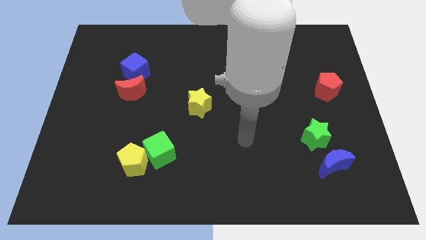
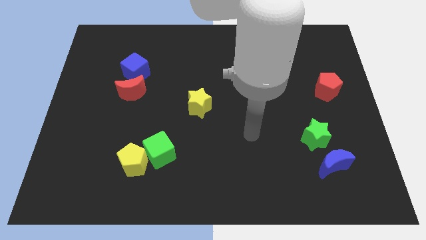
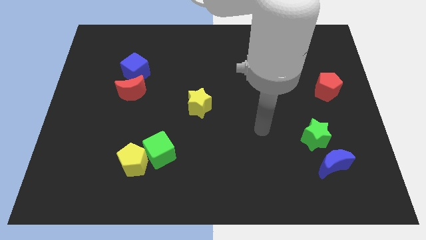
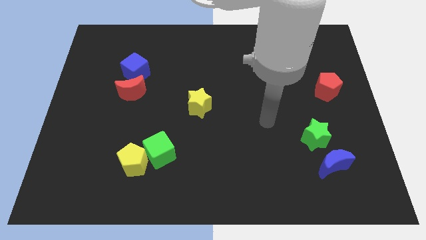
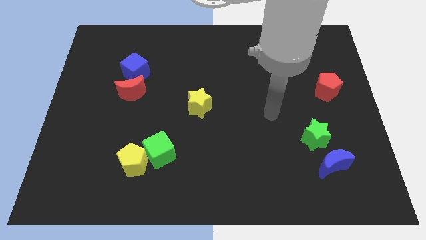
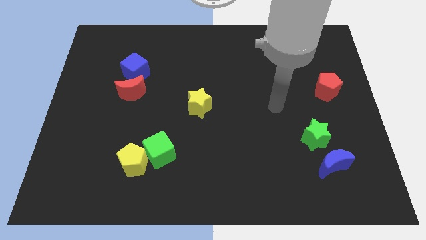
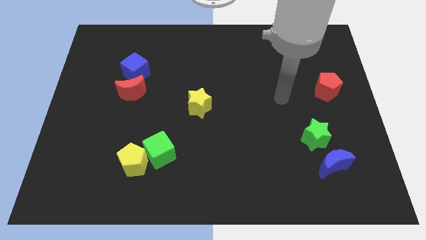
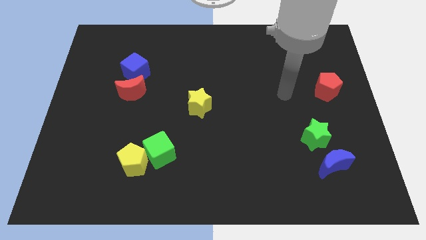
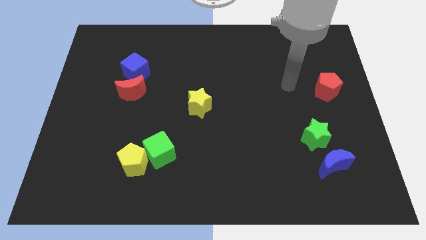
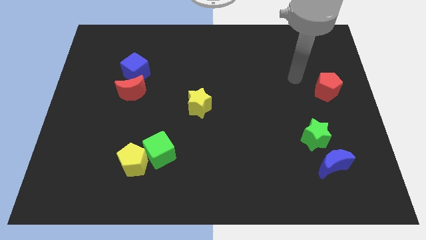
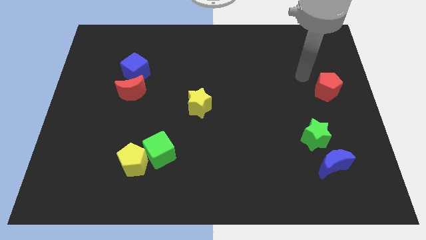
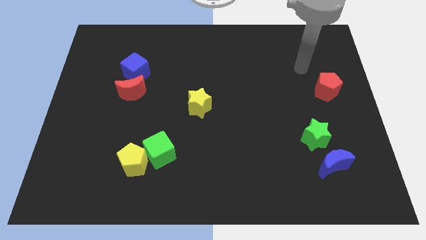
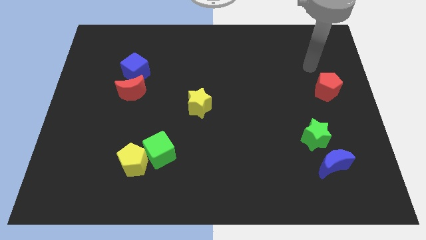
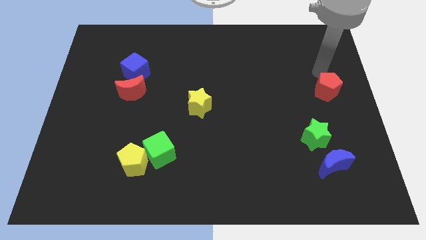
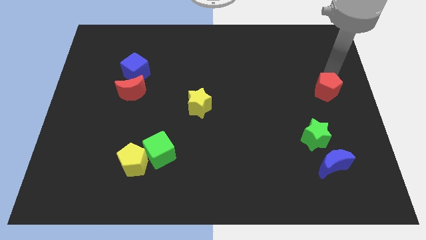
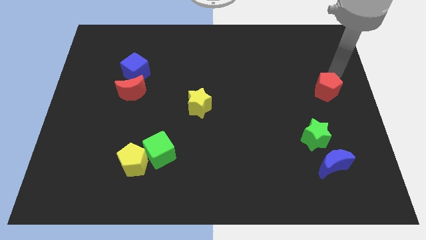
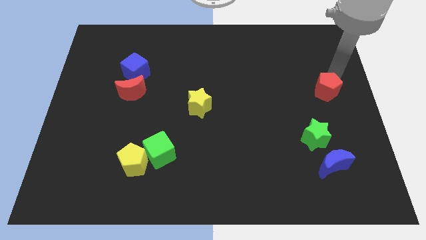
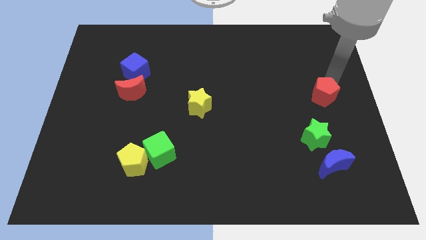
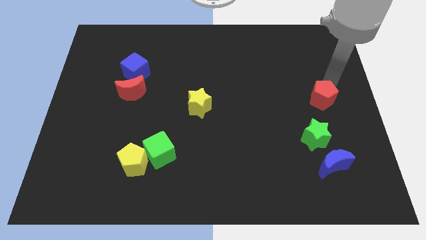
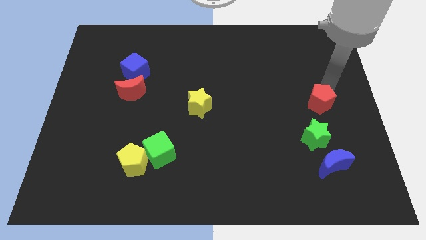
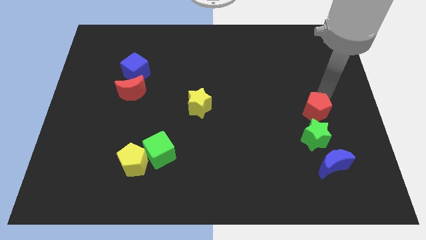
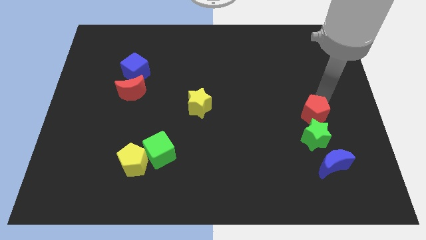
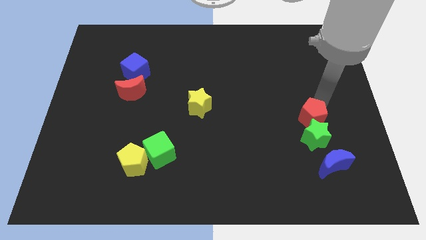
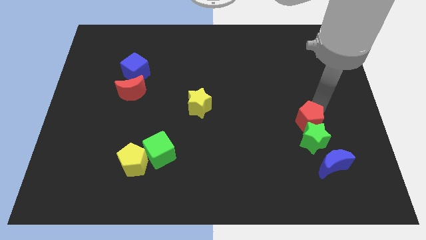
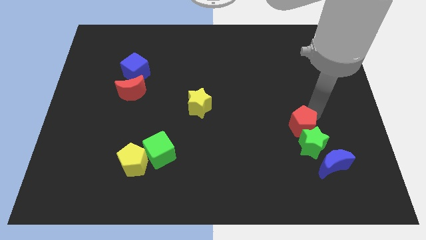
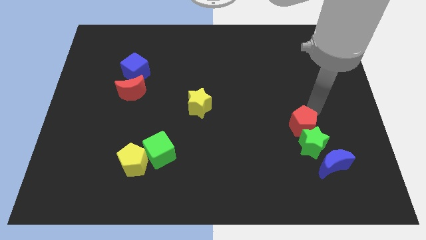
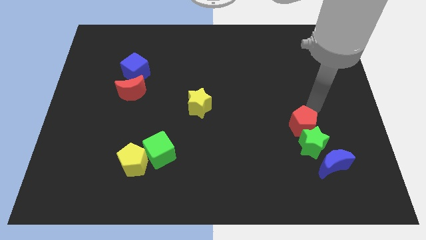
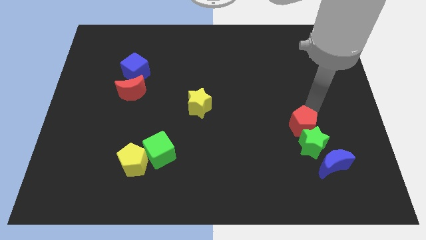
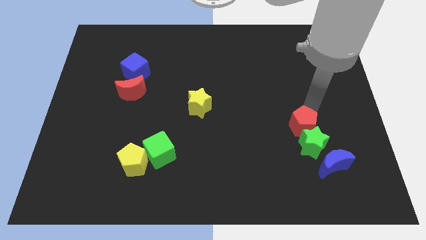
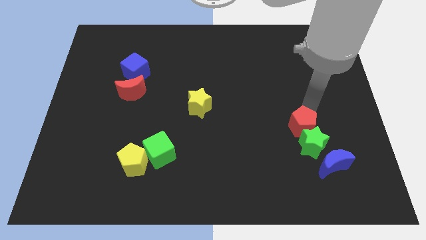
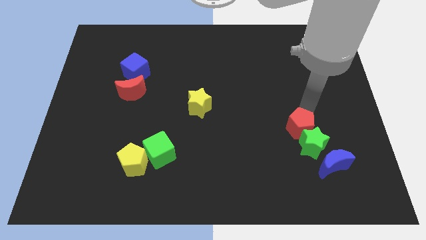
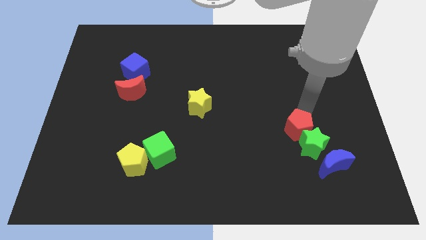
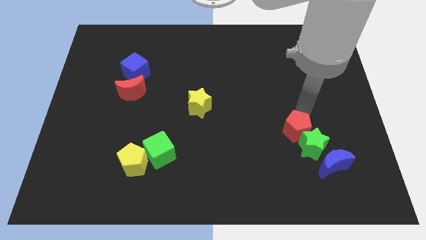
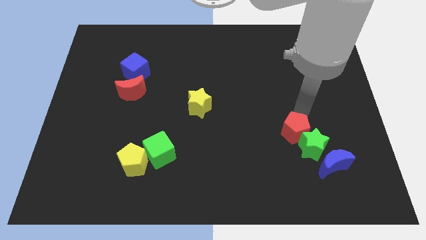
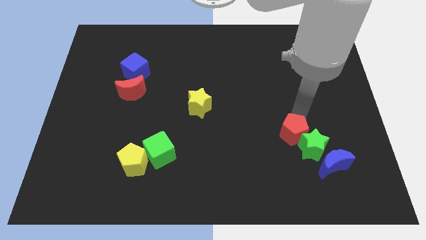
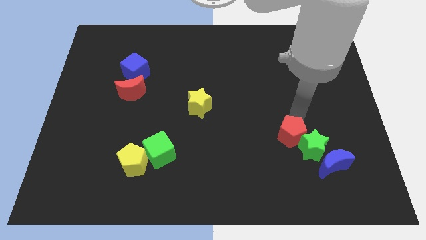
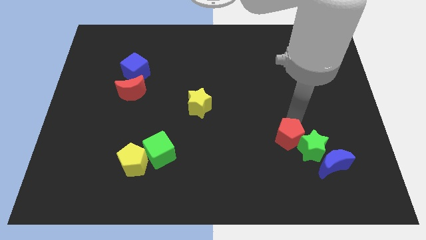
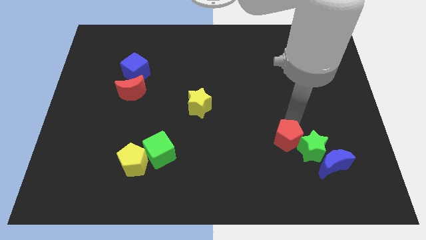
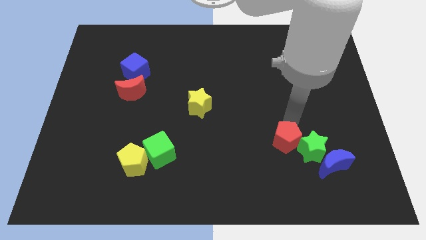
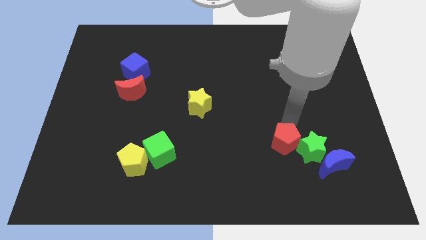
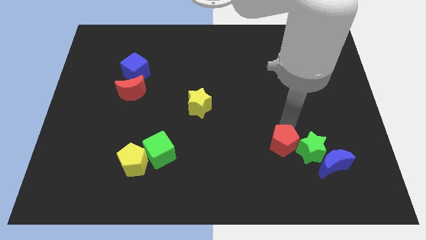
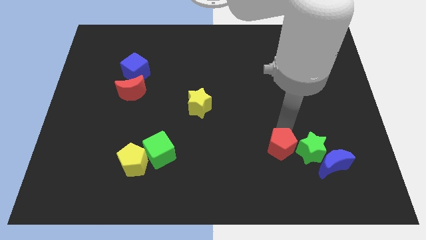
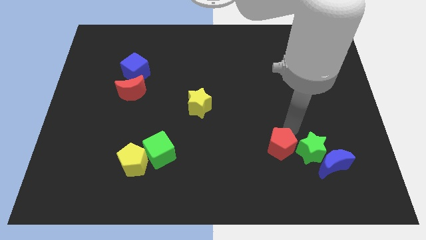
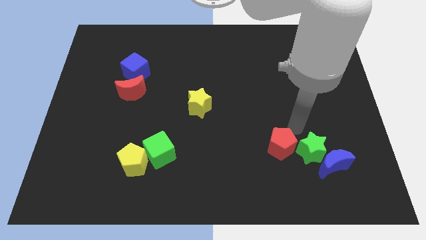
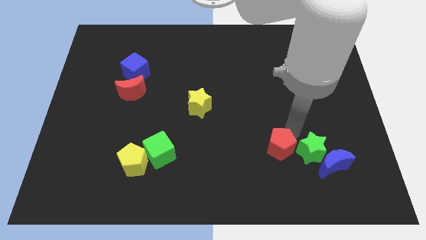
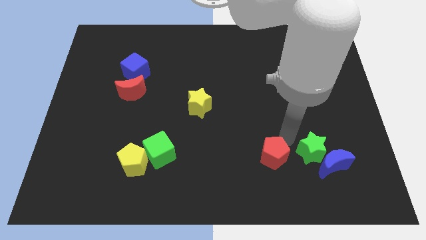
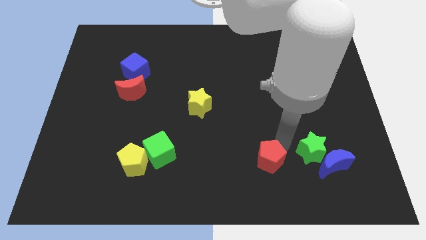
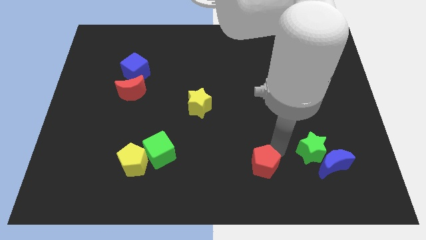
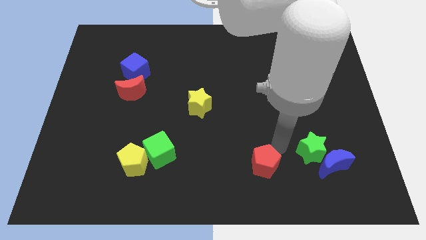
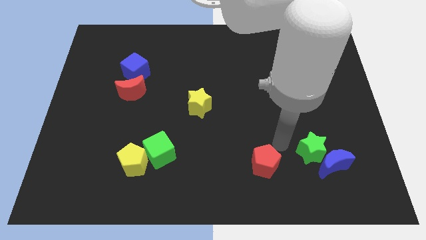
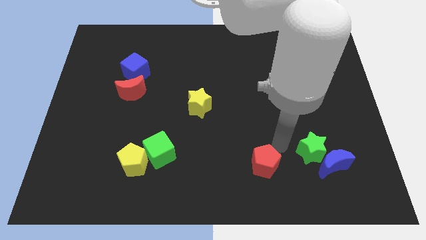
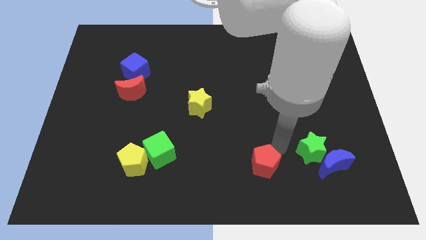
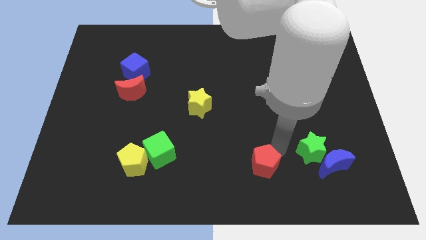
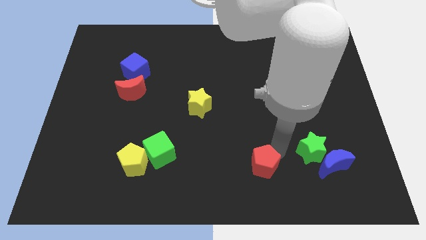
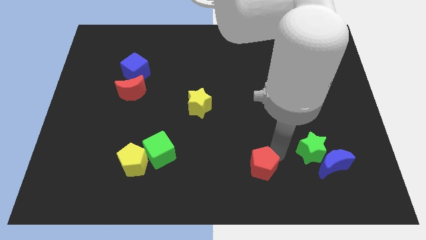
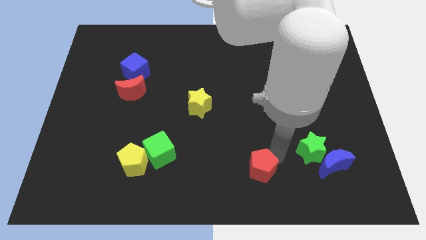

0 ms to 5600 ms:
push the red pentagon to the bottom side
